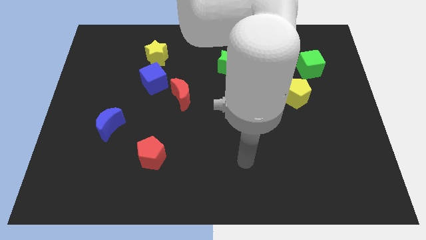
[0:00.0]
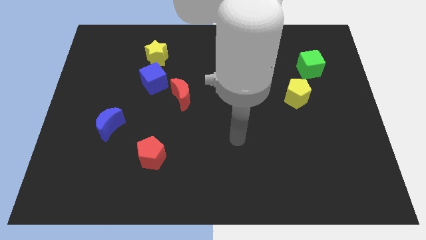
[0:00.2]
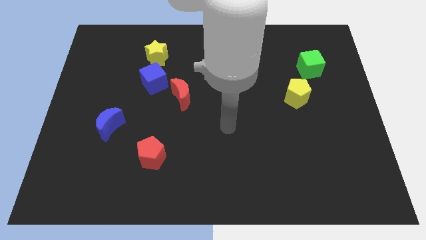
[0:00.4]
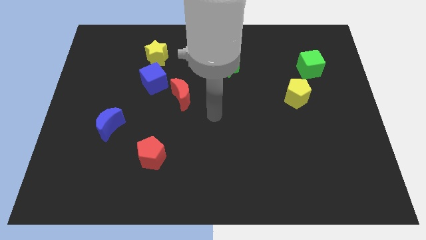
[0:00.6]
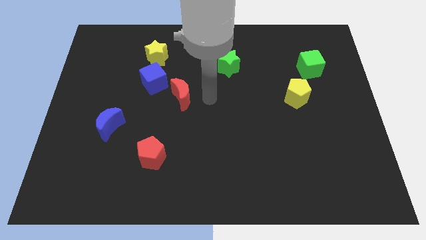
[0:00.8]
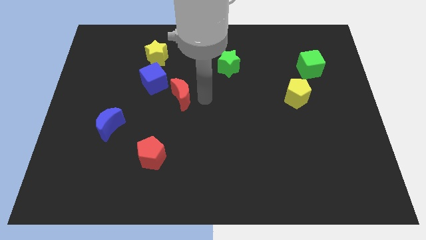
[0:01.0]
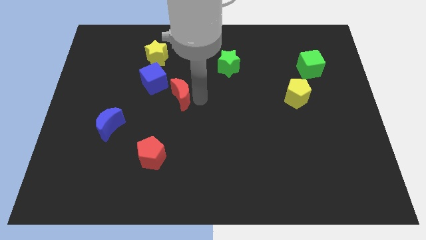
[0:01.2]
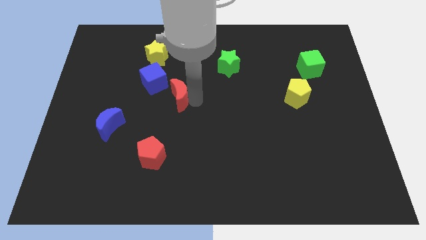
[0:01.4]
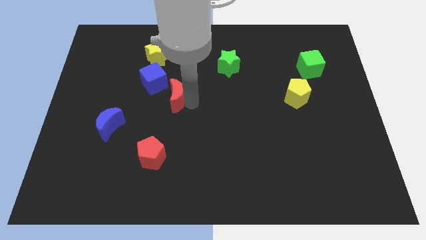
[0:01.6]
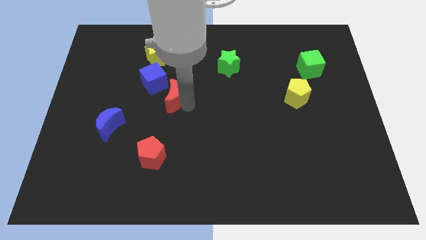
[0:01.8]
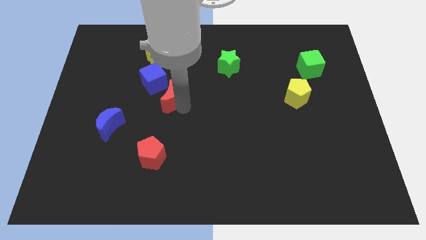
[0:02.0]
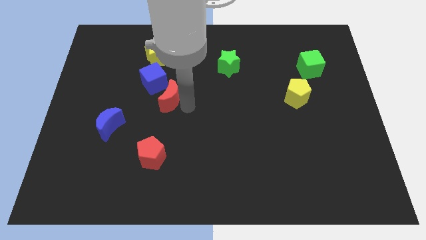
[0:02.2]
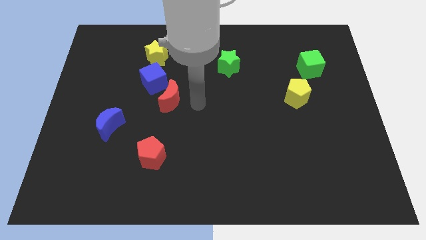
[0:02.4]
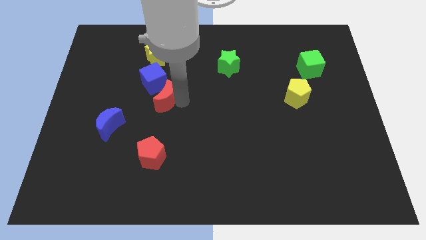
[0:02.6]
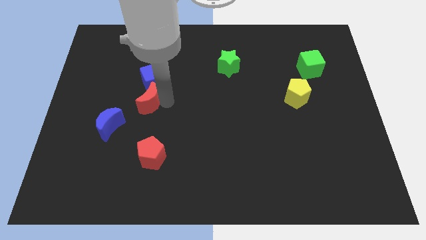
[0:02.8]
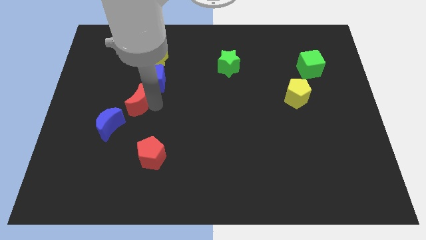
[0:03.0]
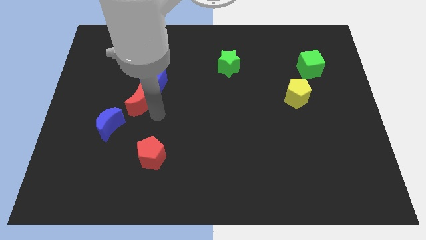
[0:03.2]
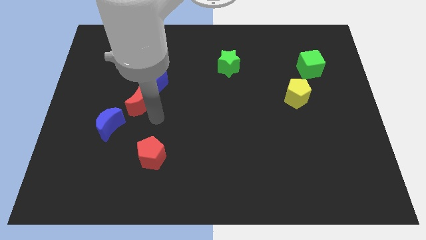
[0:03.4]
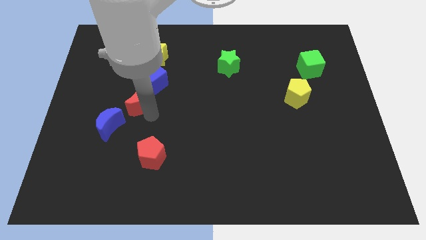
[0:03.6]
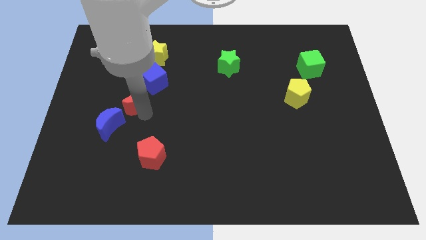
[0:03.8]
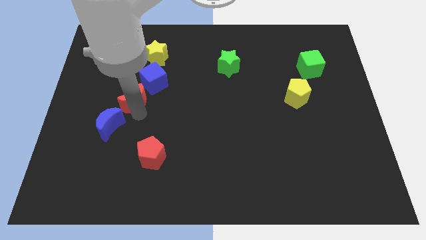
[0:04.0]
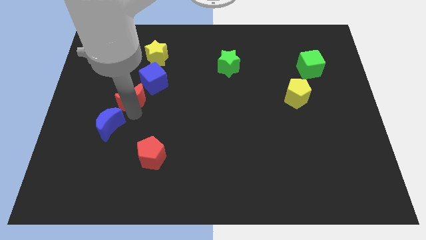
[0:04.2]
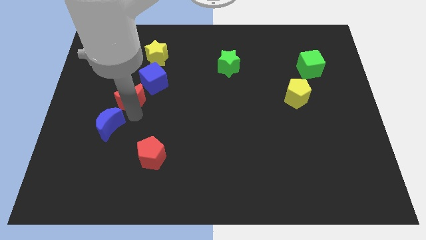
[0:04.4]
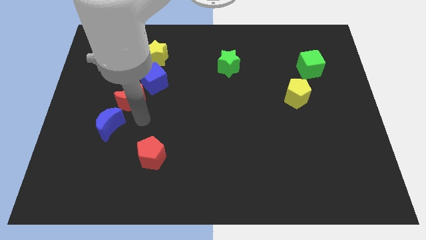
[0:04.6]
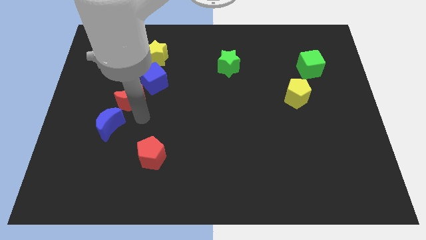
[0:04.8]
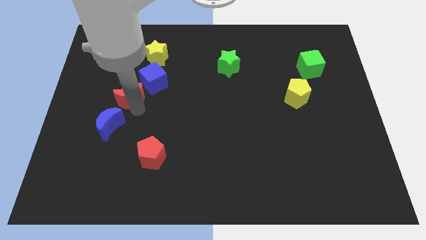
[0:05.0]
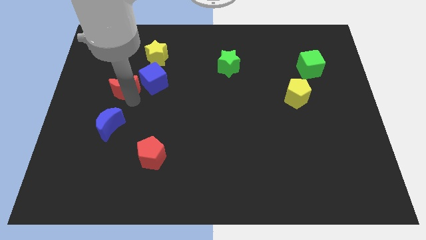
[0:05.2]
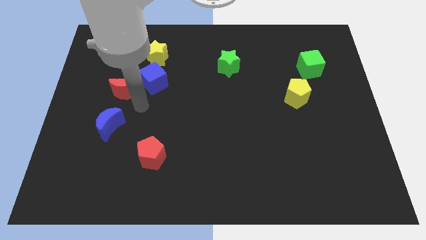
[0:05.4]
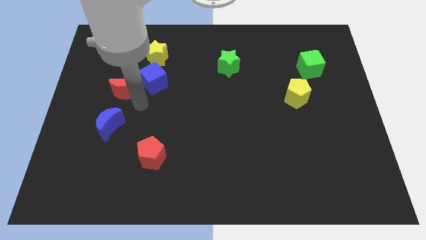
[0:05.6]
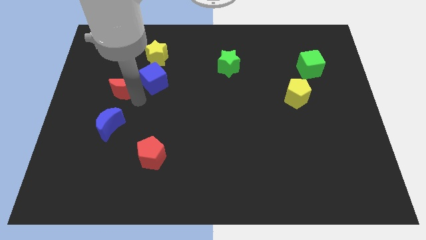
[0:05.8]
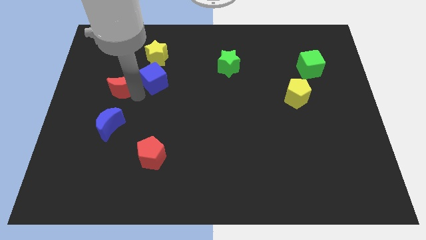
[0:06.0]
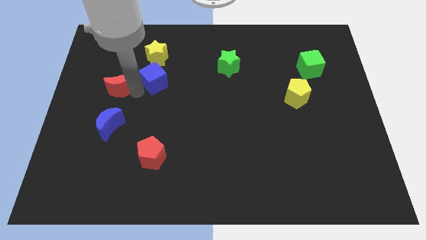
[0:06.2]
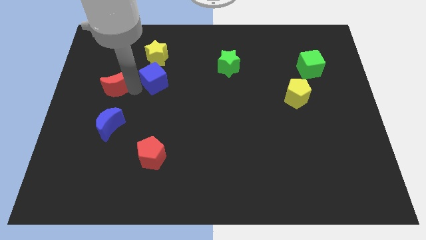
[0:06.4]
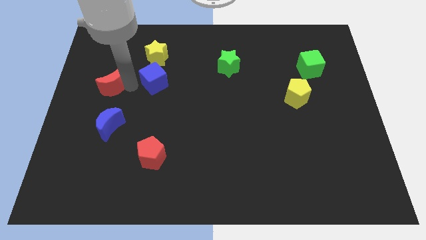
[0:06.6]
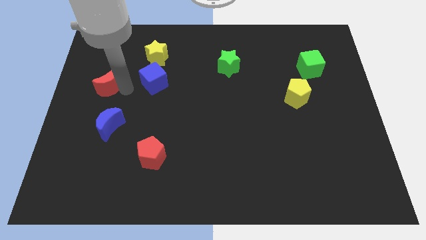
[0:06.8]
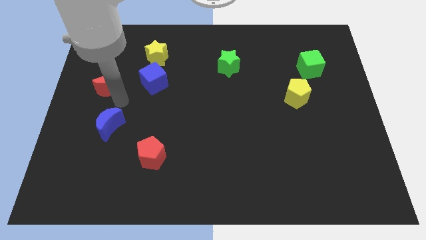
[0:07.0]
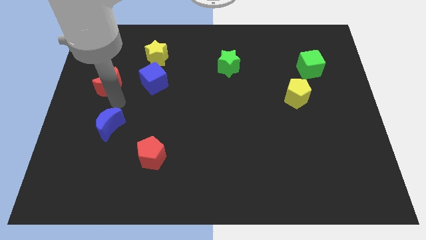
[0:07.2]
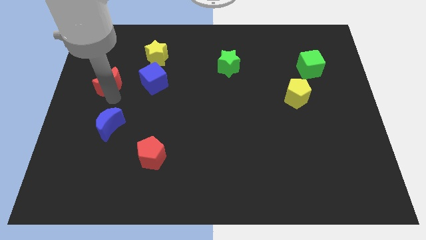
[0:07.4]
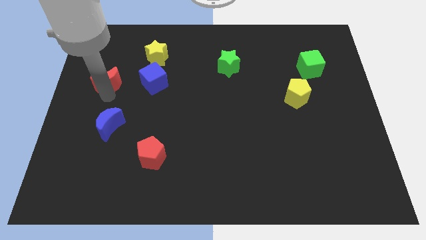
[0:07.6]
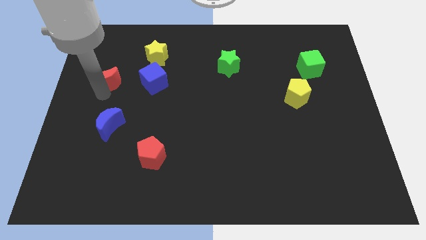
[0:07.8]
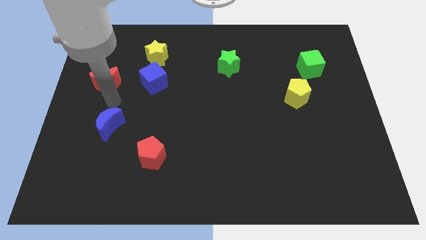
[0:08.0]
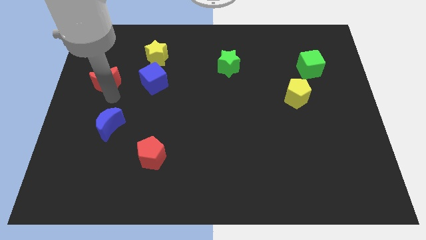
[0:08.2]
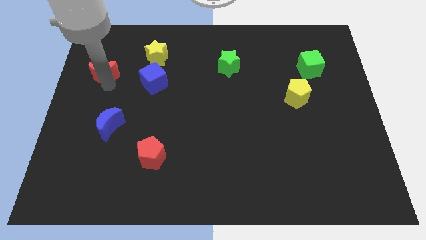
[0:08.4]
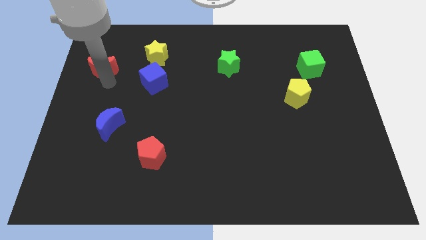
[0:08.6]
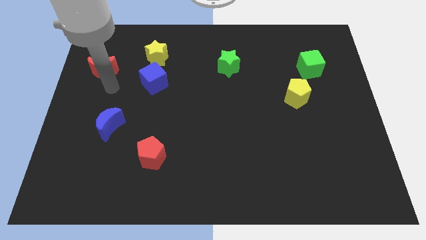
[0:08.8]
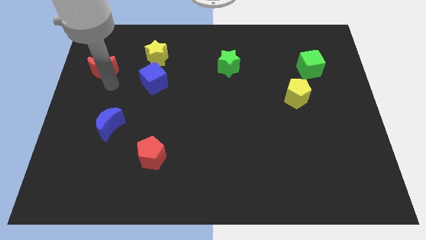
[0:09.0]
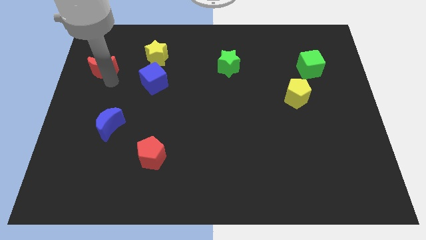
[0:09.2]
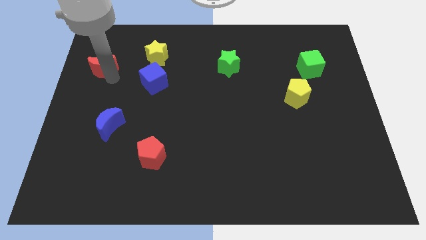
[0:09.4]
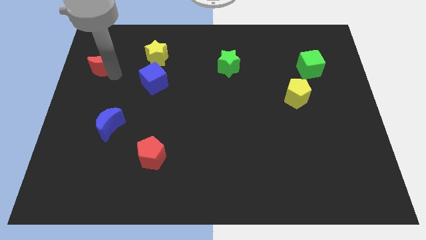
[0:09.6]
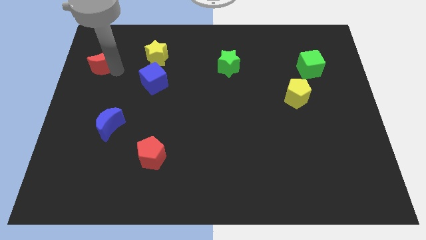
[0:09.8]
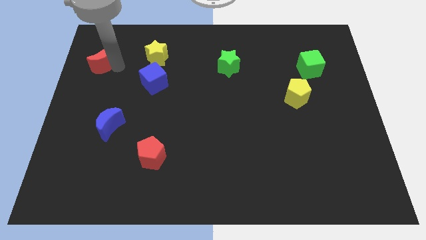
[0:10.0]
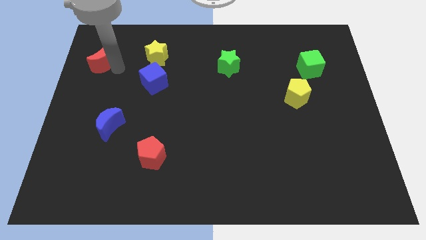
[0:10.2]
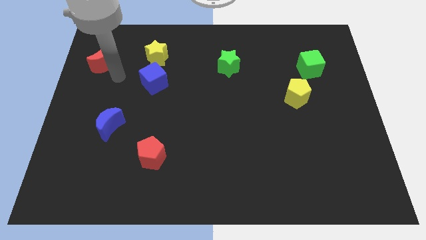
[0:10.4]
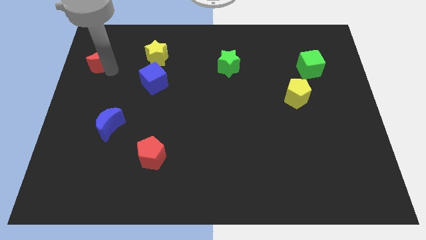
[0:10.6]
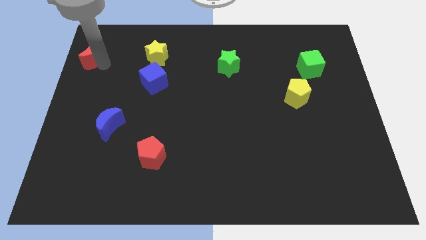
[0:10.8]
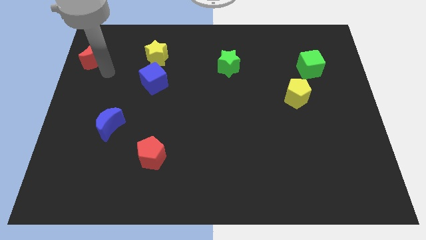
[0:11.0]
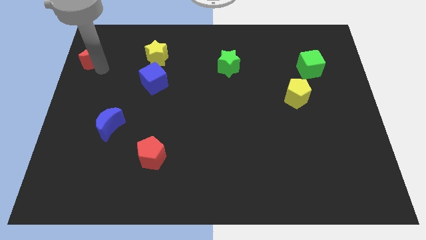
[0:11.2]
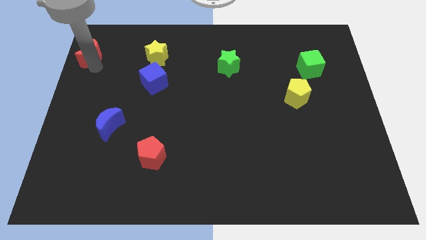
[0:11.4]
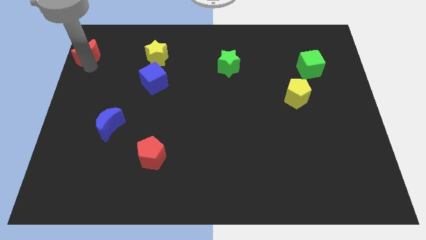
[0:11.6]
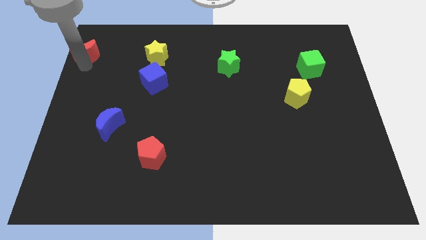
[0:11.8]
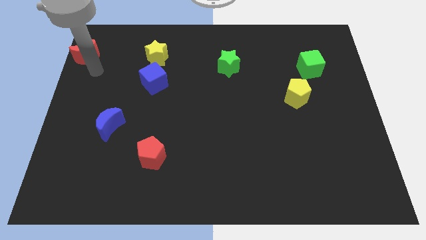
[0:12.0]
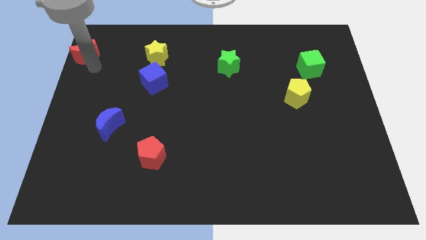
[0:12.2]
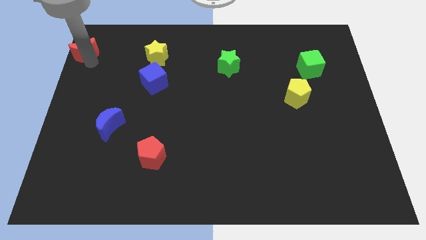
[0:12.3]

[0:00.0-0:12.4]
slide the red moon to the top left of the board

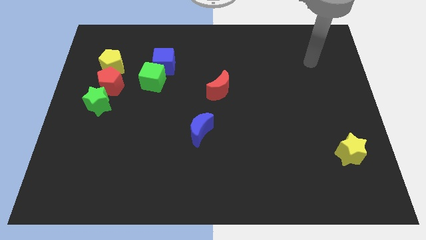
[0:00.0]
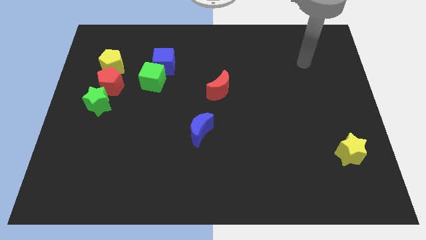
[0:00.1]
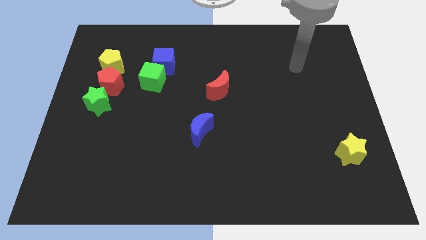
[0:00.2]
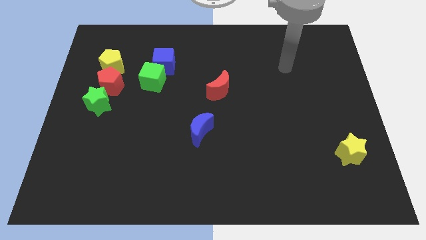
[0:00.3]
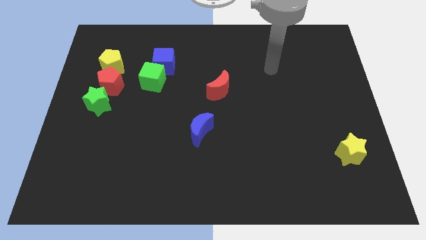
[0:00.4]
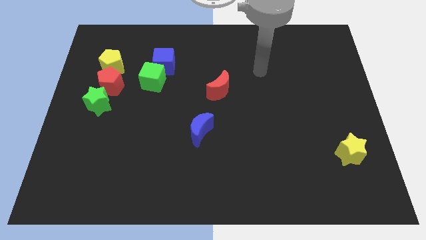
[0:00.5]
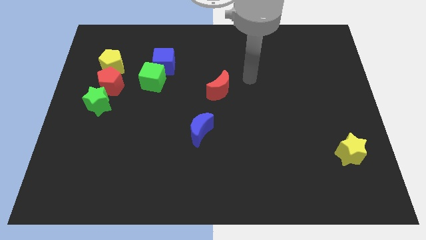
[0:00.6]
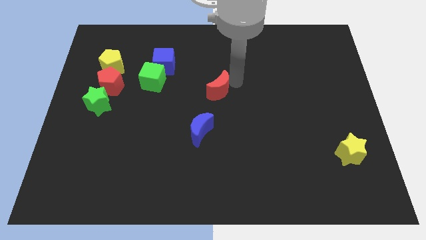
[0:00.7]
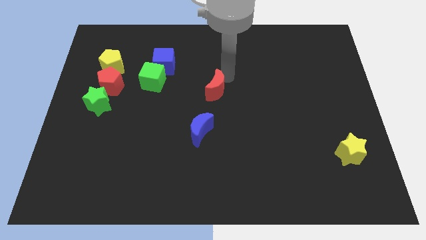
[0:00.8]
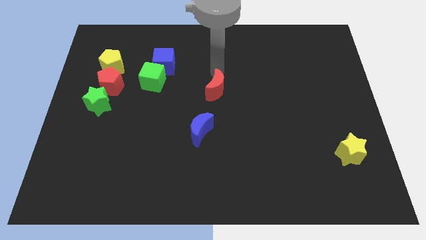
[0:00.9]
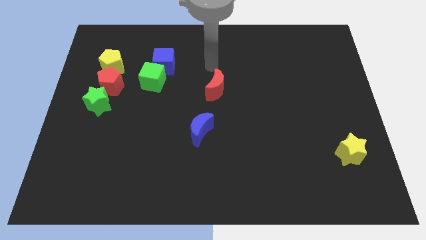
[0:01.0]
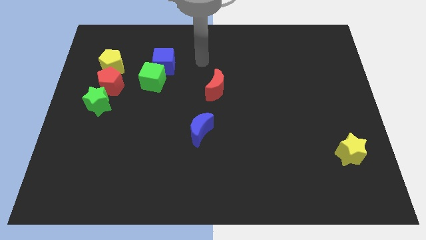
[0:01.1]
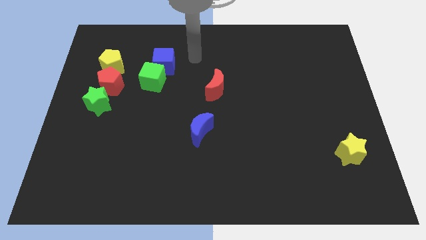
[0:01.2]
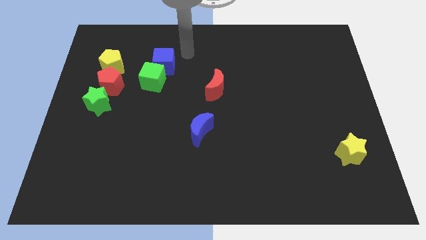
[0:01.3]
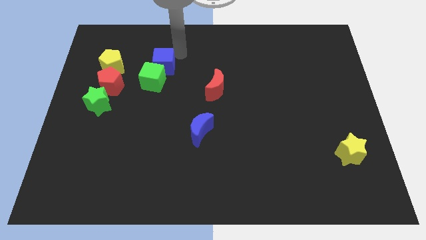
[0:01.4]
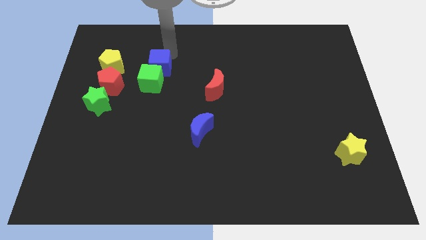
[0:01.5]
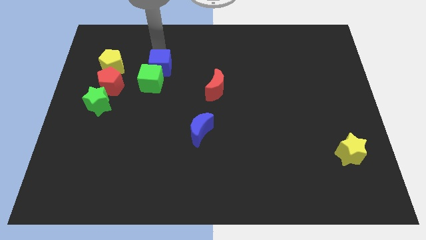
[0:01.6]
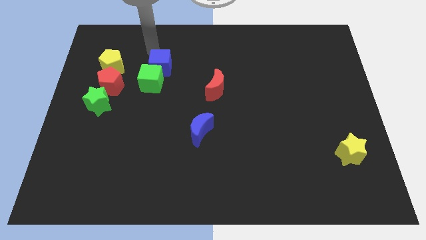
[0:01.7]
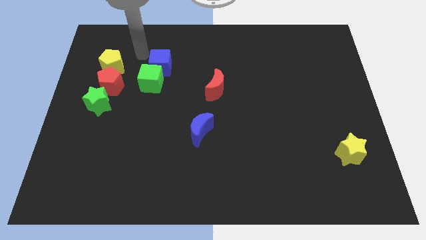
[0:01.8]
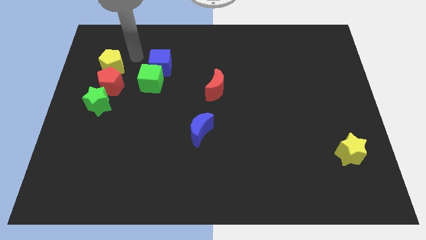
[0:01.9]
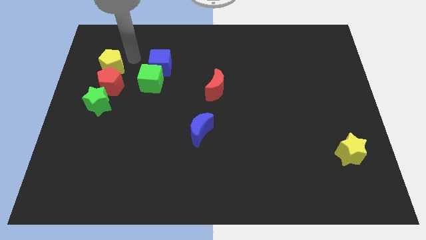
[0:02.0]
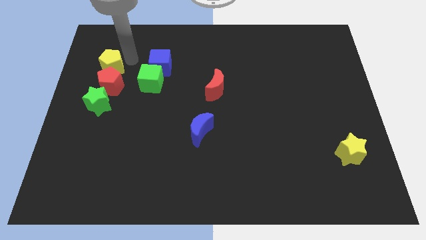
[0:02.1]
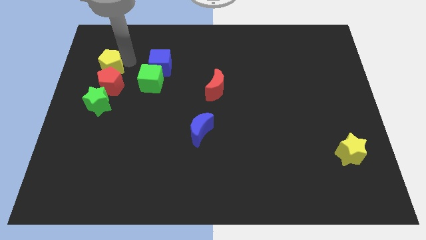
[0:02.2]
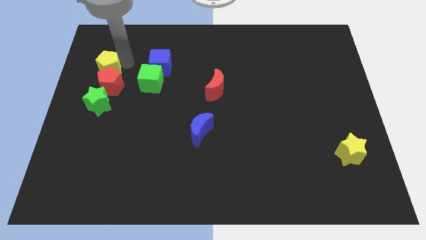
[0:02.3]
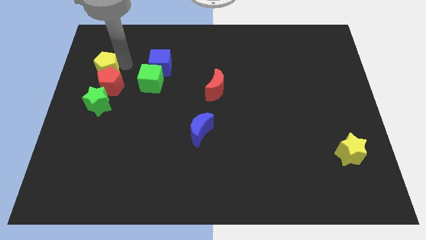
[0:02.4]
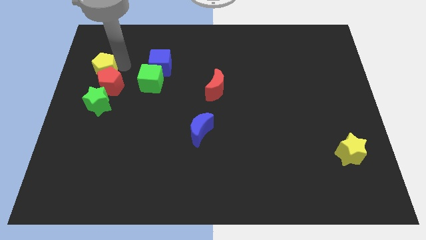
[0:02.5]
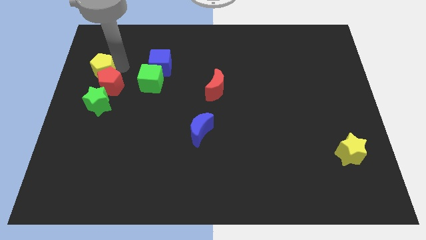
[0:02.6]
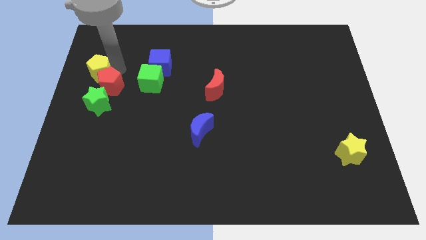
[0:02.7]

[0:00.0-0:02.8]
put the yellow pentagon to the center left
